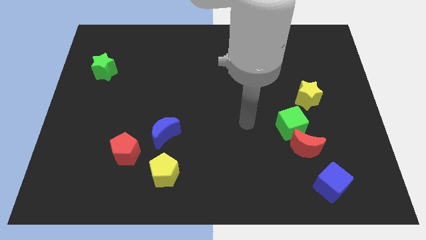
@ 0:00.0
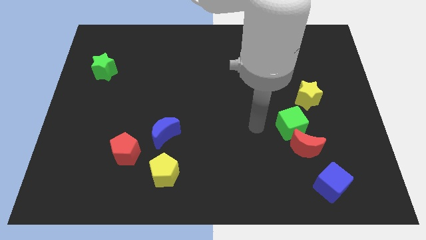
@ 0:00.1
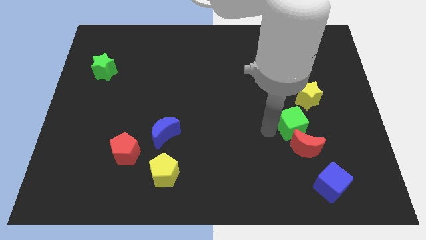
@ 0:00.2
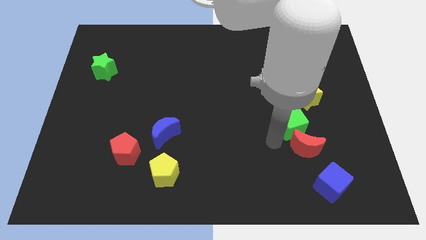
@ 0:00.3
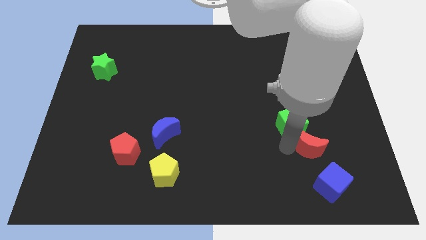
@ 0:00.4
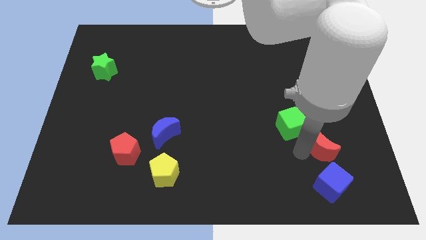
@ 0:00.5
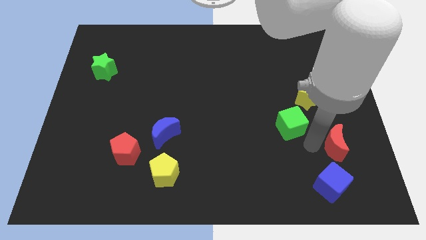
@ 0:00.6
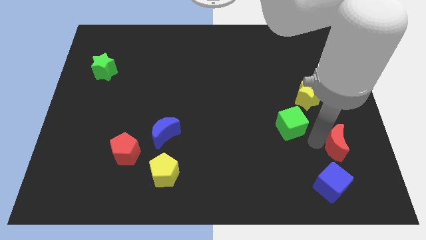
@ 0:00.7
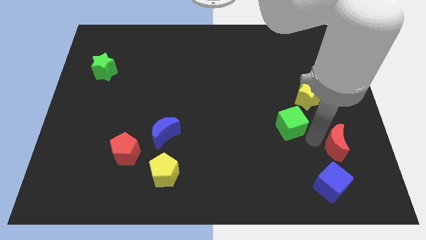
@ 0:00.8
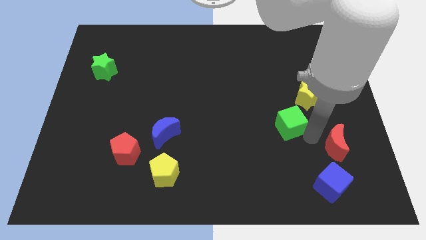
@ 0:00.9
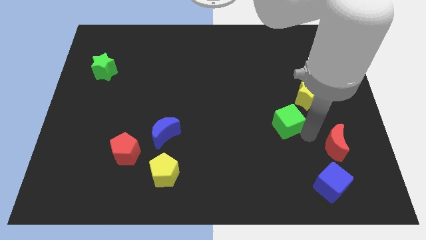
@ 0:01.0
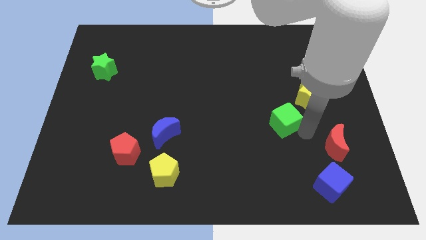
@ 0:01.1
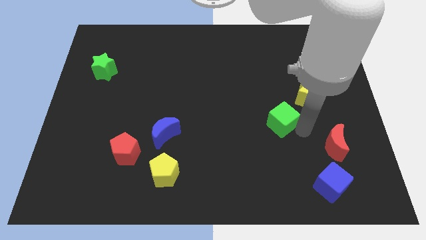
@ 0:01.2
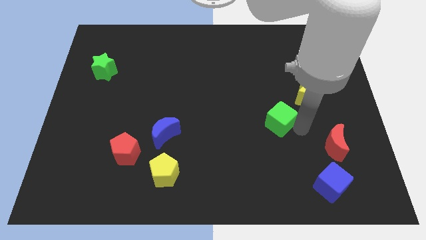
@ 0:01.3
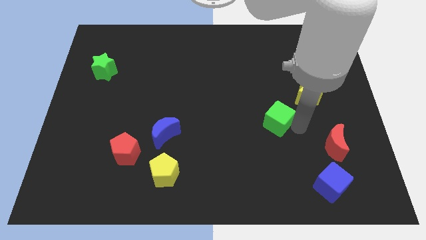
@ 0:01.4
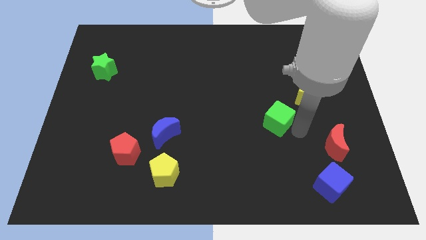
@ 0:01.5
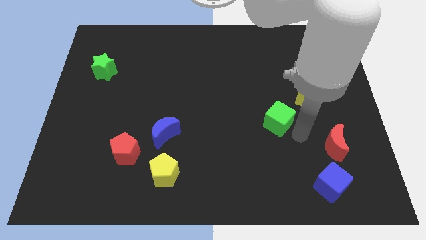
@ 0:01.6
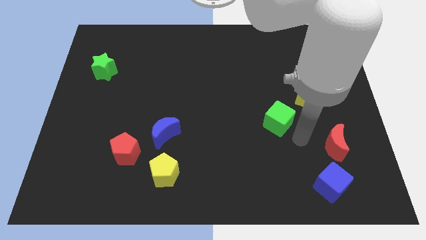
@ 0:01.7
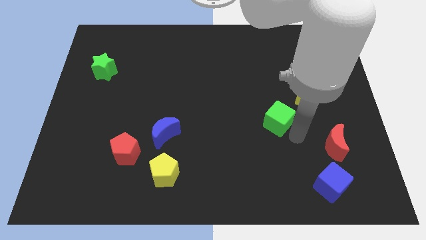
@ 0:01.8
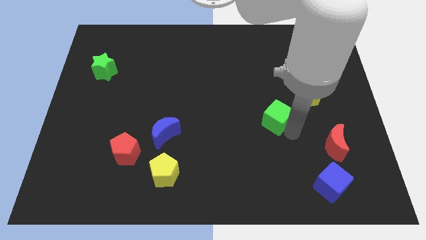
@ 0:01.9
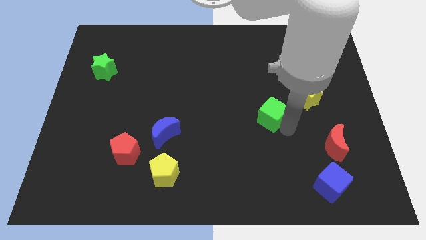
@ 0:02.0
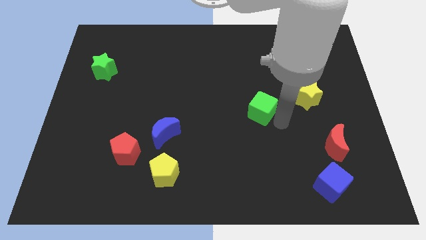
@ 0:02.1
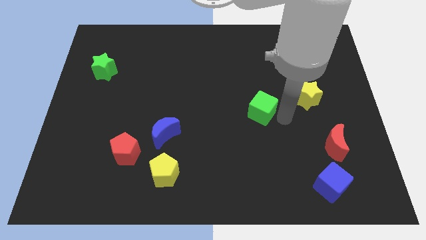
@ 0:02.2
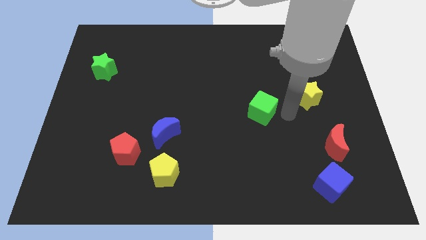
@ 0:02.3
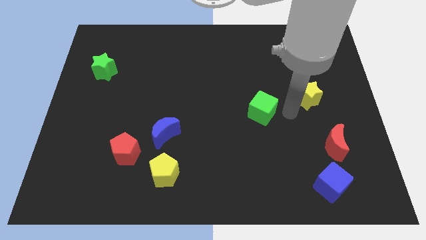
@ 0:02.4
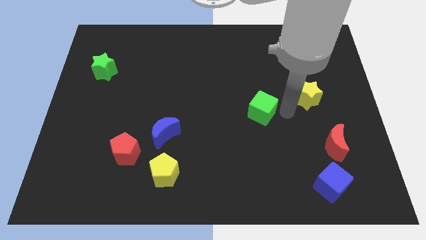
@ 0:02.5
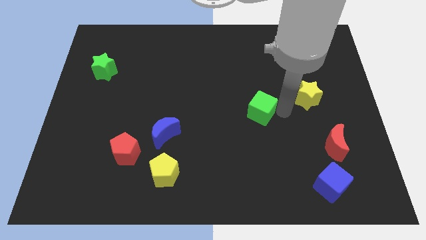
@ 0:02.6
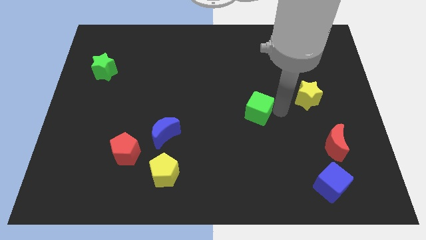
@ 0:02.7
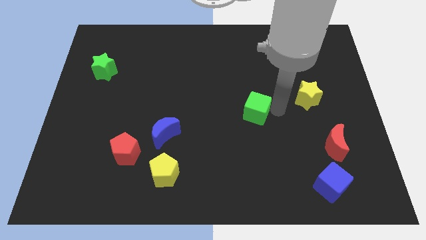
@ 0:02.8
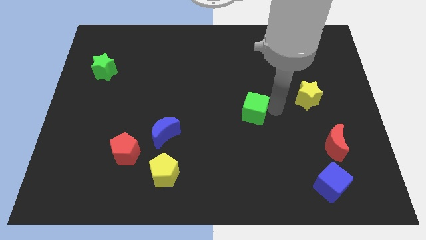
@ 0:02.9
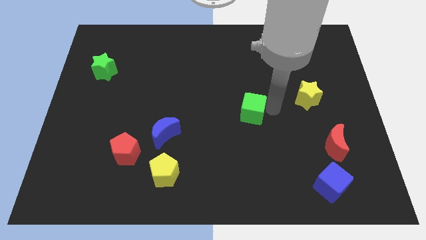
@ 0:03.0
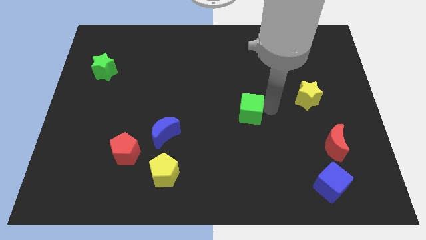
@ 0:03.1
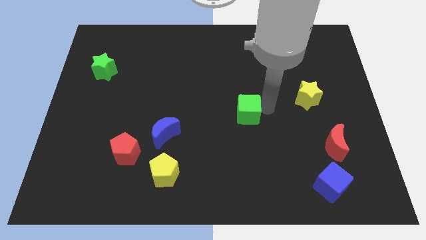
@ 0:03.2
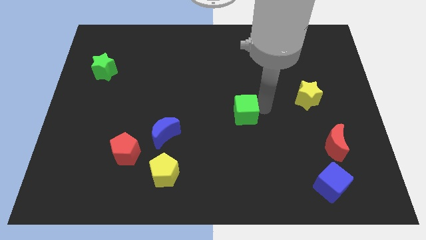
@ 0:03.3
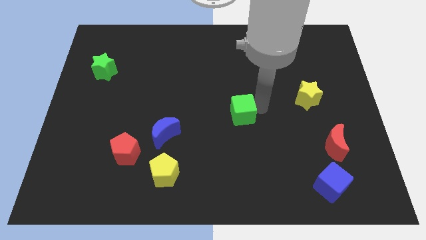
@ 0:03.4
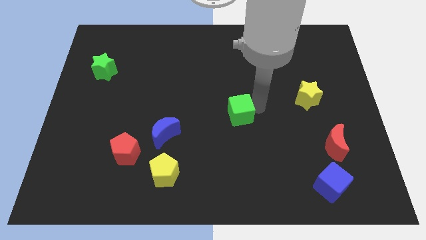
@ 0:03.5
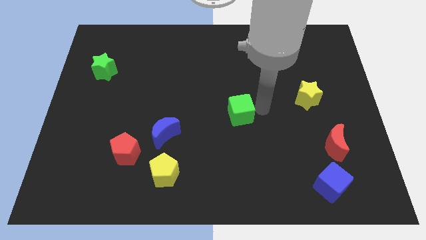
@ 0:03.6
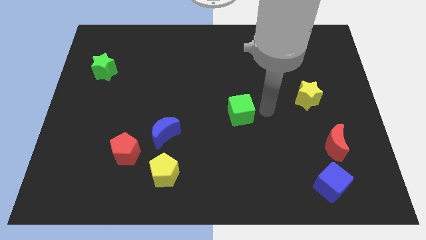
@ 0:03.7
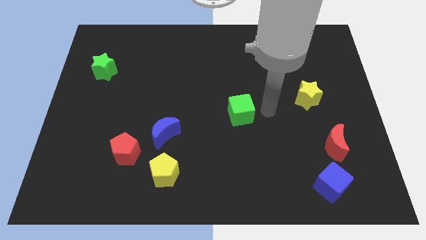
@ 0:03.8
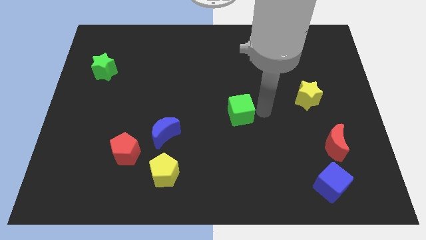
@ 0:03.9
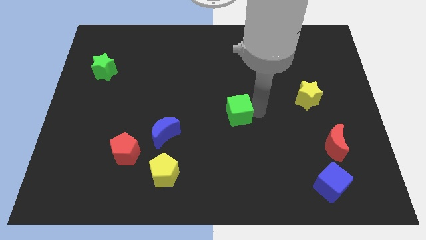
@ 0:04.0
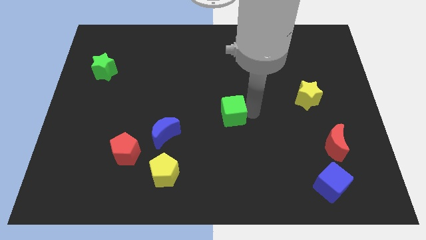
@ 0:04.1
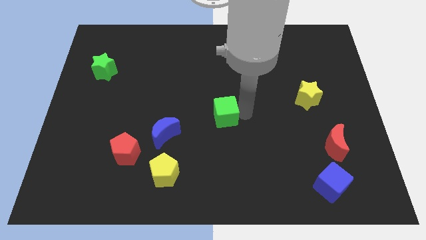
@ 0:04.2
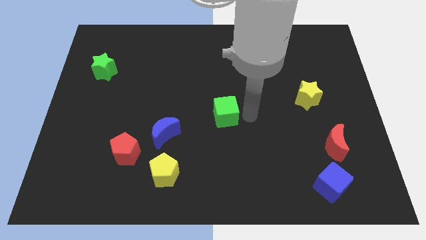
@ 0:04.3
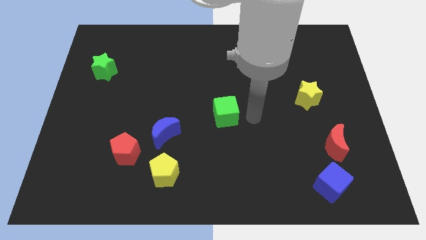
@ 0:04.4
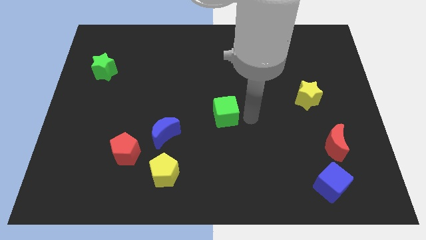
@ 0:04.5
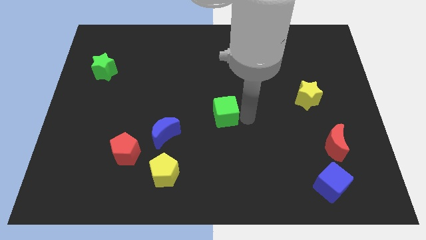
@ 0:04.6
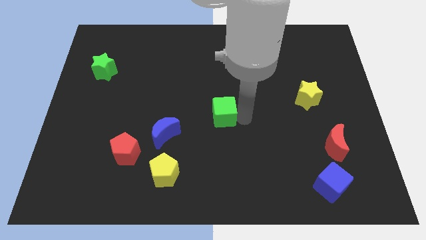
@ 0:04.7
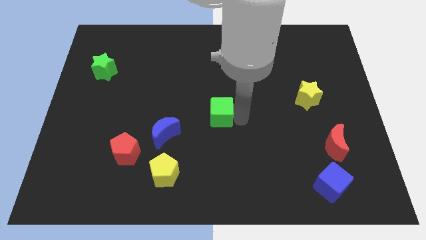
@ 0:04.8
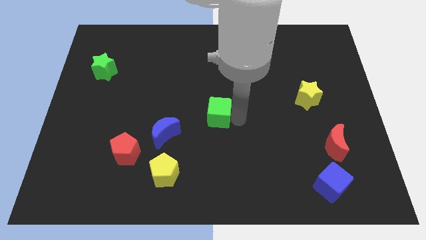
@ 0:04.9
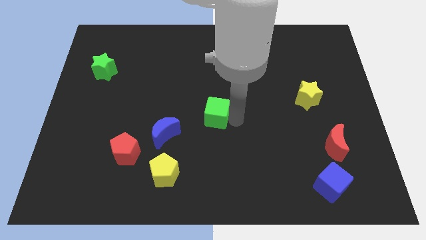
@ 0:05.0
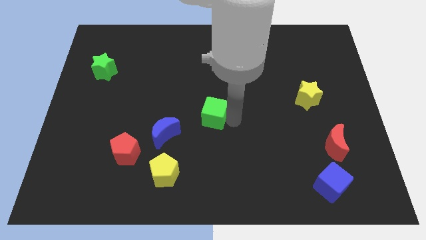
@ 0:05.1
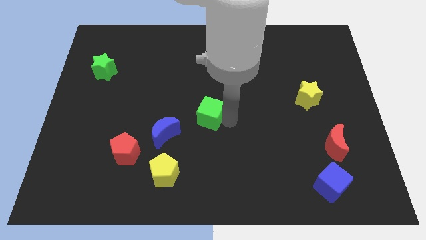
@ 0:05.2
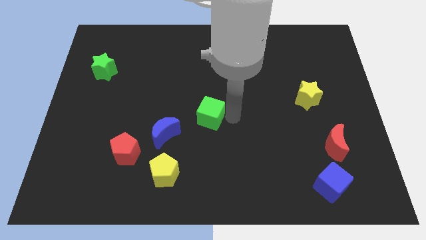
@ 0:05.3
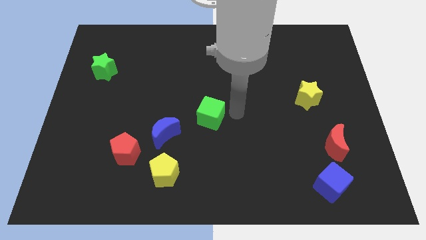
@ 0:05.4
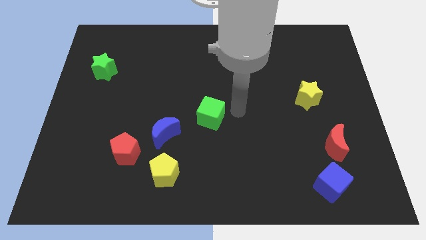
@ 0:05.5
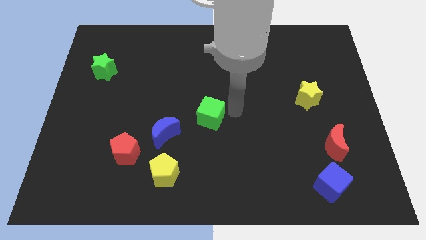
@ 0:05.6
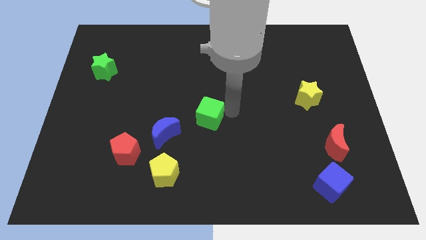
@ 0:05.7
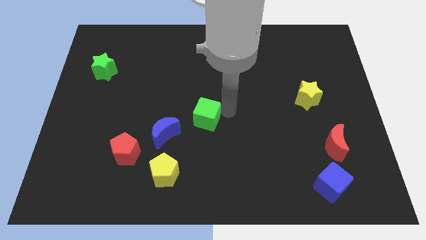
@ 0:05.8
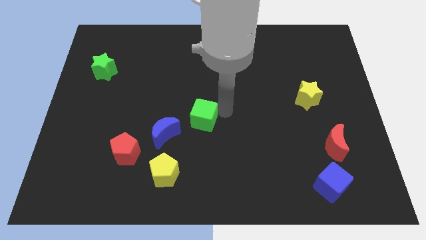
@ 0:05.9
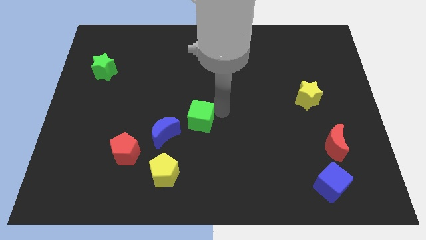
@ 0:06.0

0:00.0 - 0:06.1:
move the green cube left

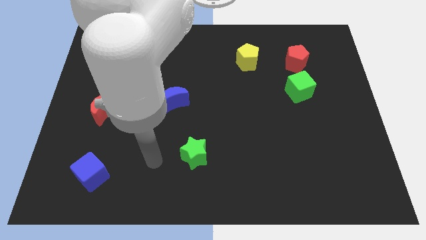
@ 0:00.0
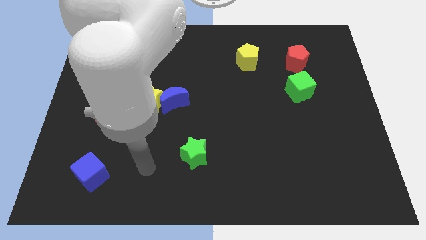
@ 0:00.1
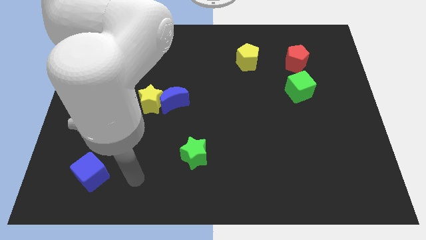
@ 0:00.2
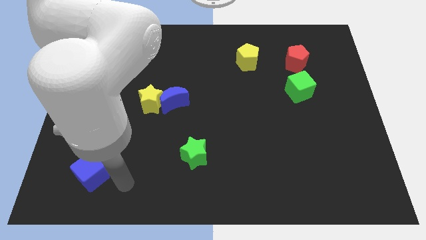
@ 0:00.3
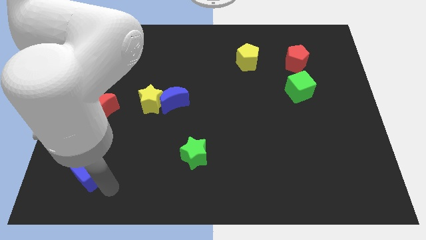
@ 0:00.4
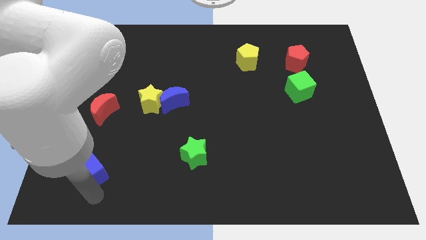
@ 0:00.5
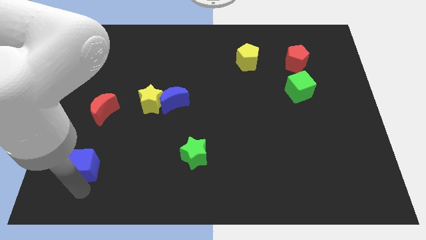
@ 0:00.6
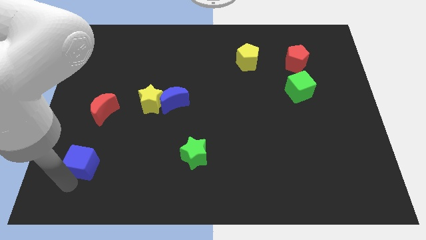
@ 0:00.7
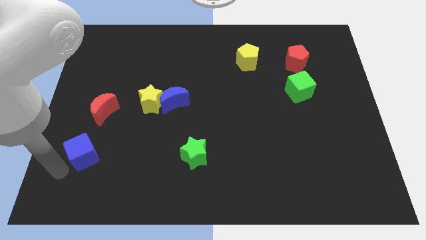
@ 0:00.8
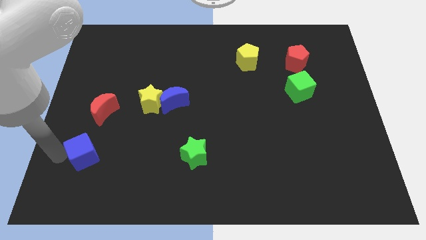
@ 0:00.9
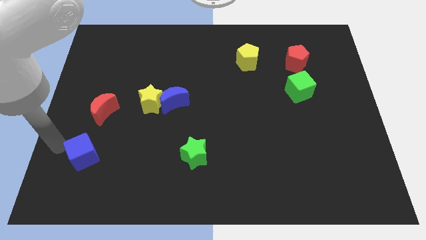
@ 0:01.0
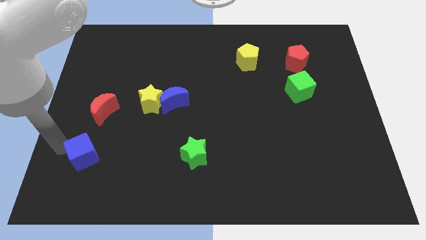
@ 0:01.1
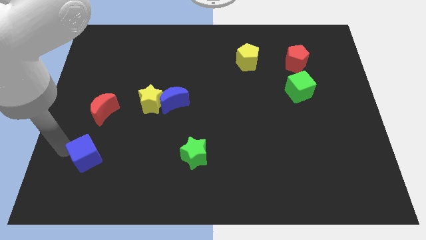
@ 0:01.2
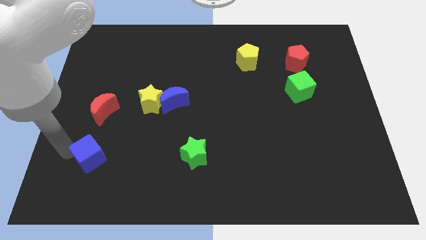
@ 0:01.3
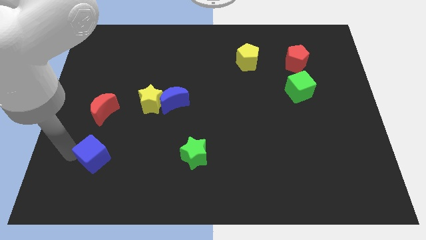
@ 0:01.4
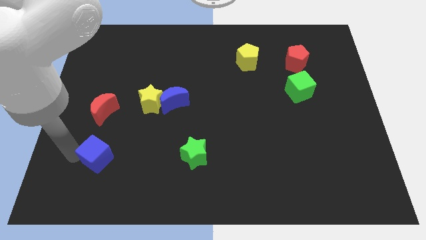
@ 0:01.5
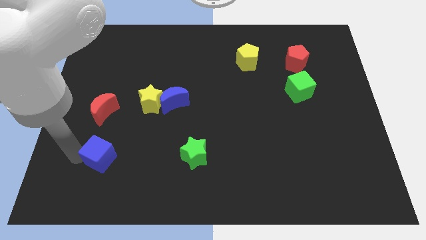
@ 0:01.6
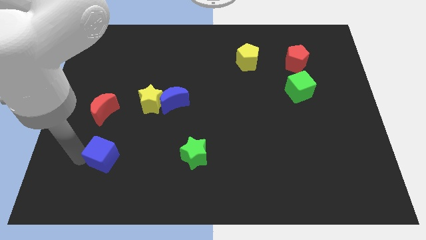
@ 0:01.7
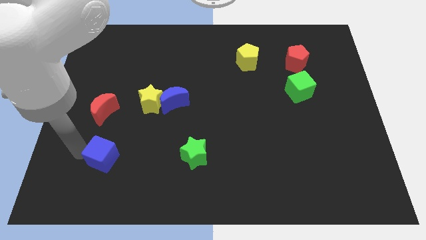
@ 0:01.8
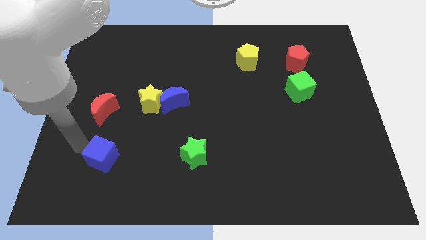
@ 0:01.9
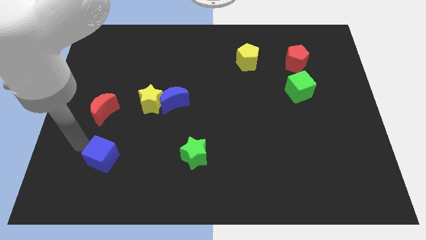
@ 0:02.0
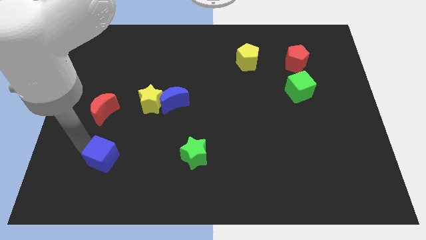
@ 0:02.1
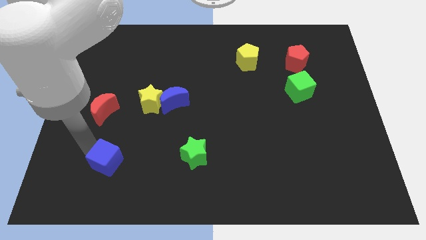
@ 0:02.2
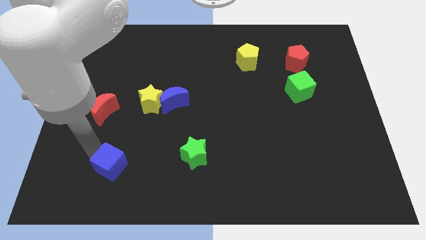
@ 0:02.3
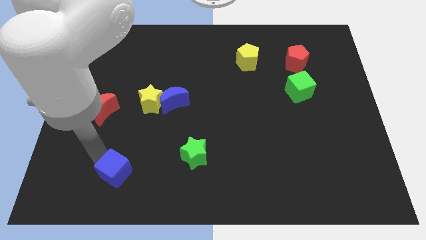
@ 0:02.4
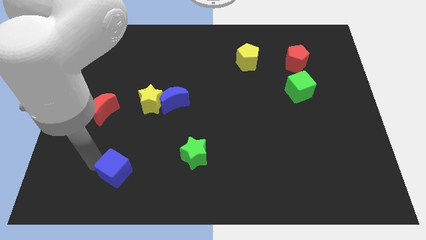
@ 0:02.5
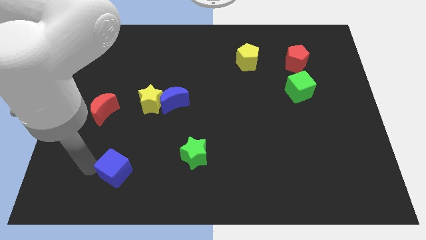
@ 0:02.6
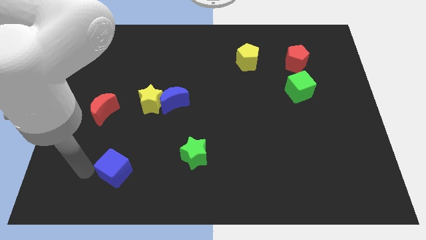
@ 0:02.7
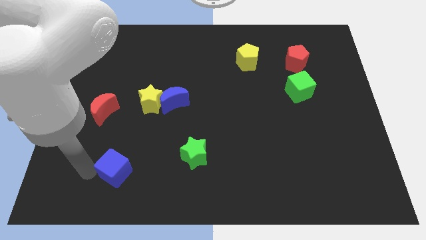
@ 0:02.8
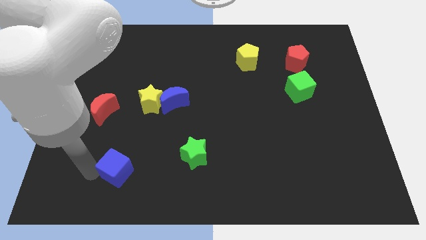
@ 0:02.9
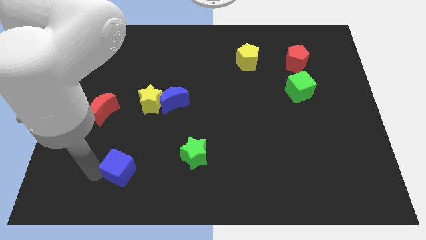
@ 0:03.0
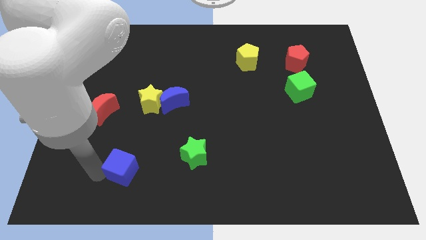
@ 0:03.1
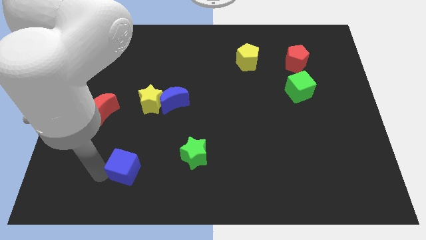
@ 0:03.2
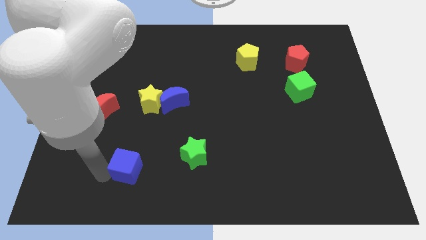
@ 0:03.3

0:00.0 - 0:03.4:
slightly push the blue cube to the right
